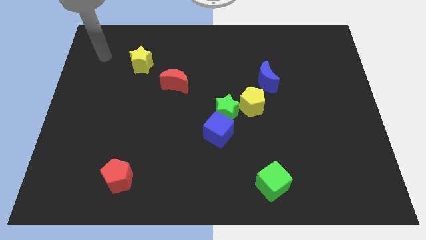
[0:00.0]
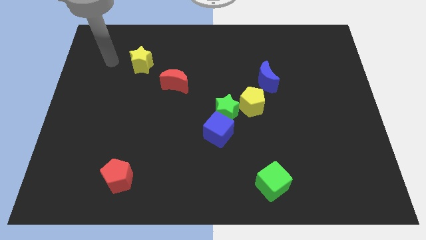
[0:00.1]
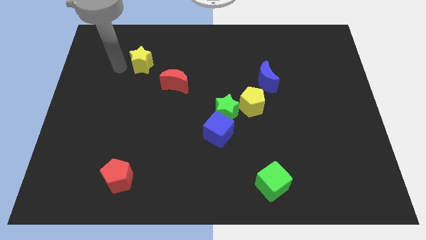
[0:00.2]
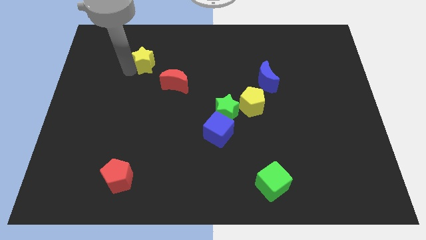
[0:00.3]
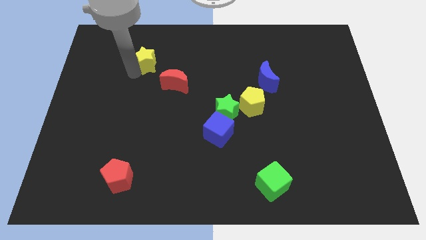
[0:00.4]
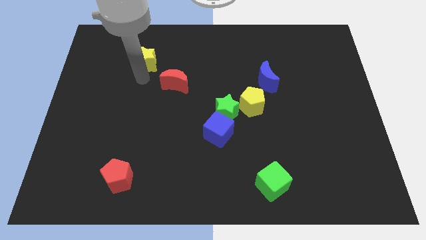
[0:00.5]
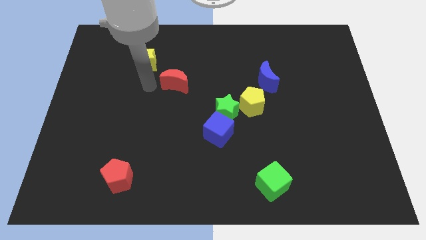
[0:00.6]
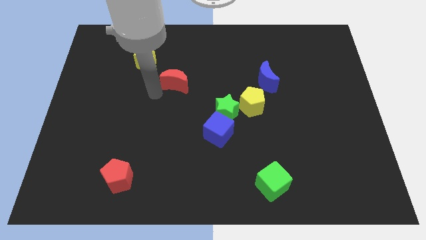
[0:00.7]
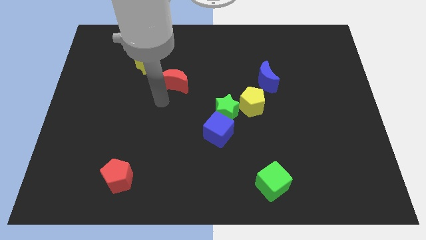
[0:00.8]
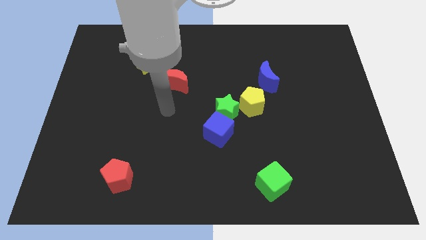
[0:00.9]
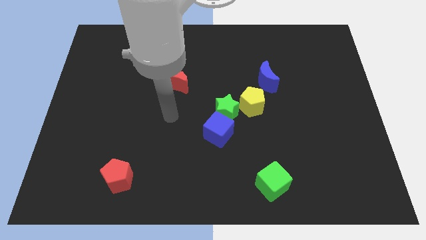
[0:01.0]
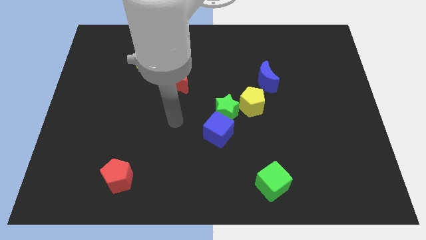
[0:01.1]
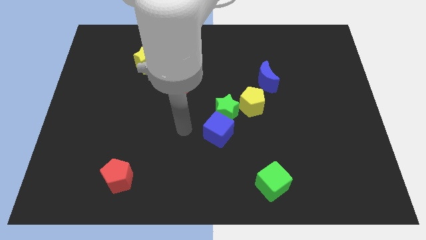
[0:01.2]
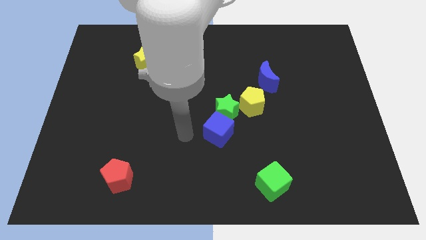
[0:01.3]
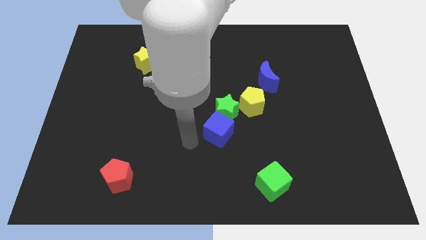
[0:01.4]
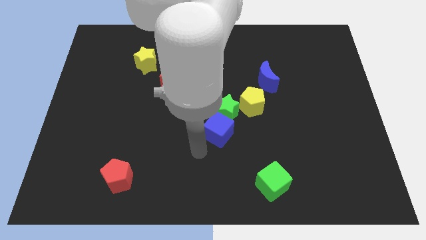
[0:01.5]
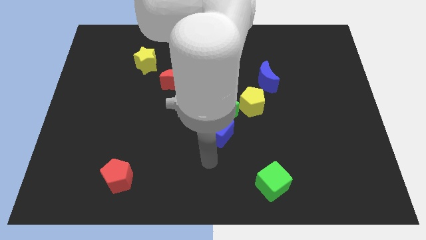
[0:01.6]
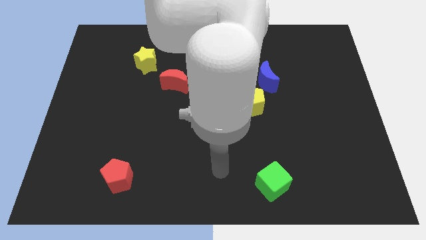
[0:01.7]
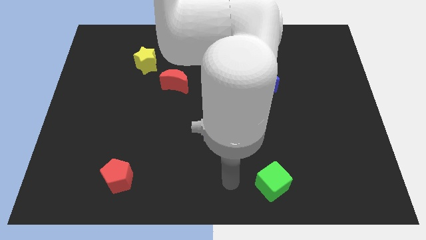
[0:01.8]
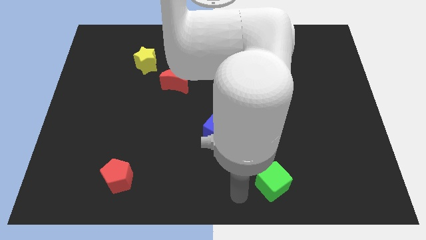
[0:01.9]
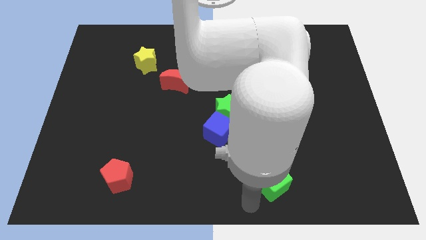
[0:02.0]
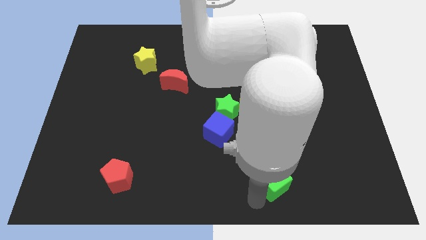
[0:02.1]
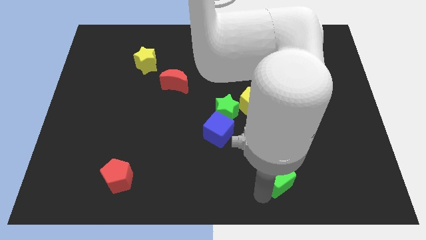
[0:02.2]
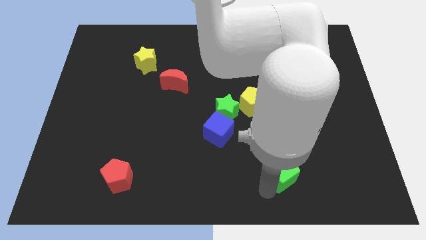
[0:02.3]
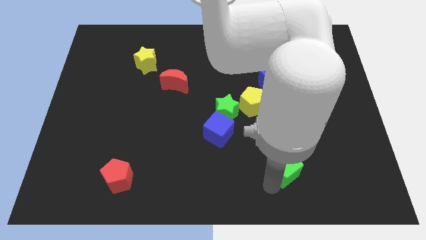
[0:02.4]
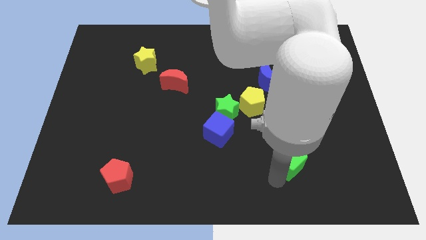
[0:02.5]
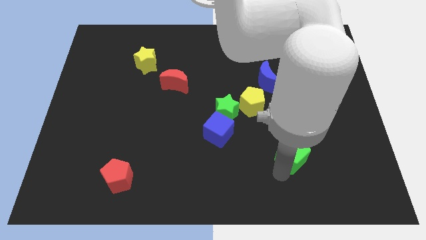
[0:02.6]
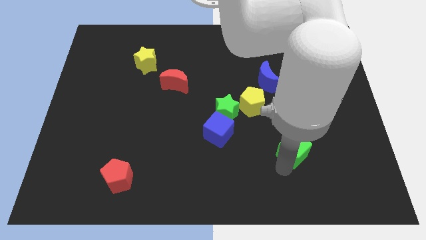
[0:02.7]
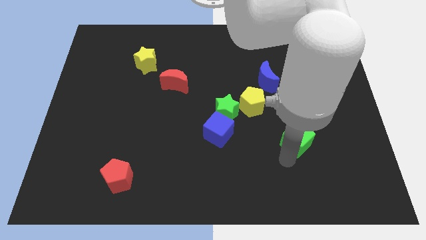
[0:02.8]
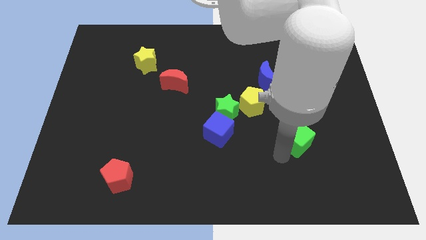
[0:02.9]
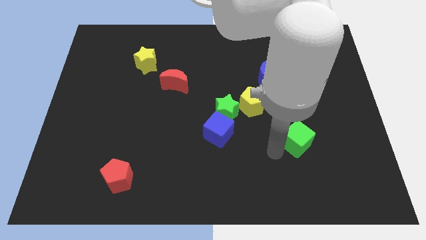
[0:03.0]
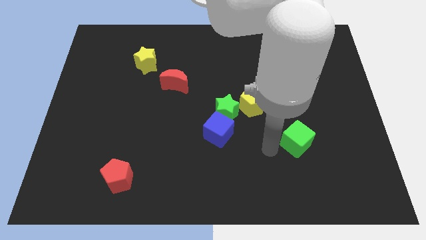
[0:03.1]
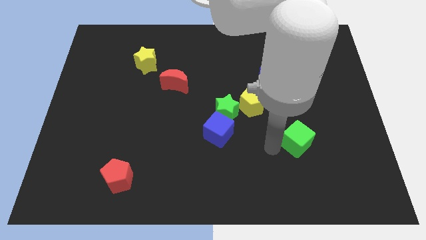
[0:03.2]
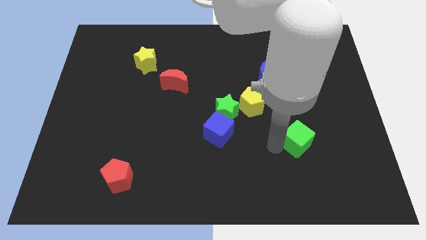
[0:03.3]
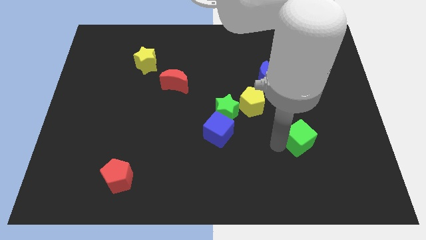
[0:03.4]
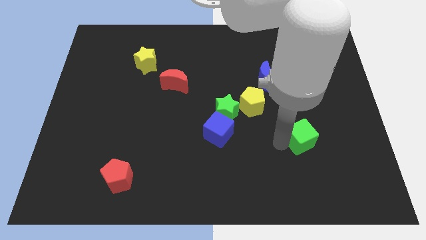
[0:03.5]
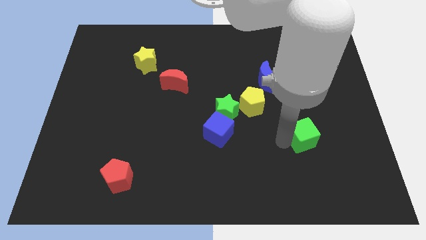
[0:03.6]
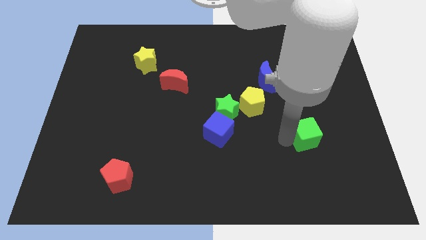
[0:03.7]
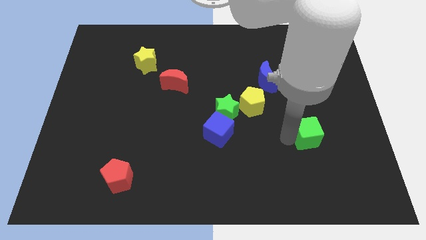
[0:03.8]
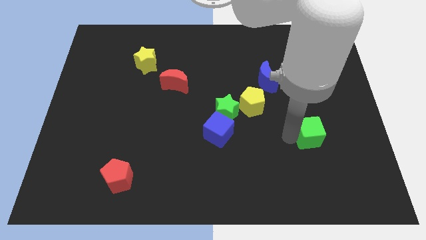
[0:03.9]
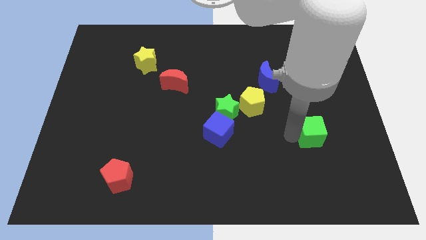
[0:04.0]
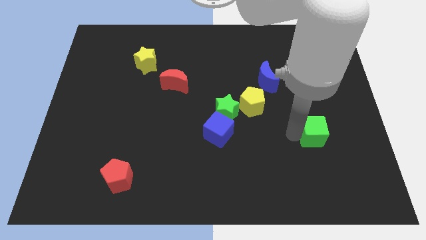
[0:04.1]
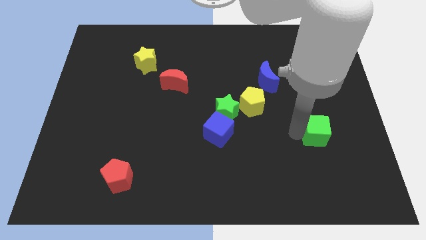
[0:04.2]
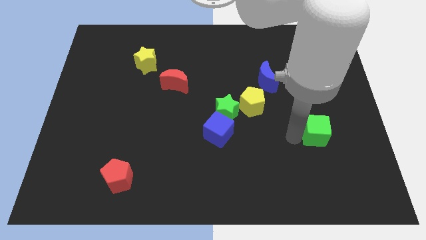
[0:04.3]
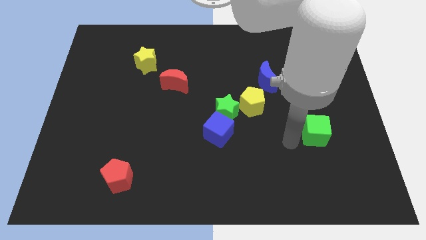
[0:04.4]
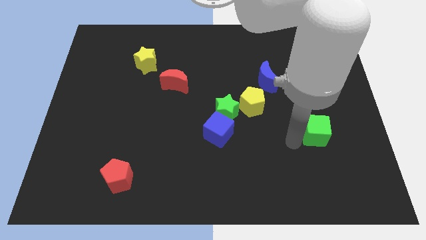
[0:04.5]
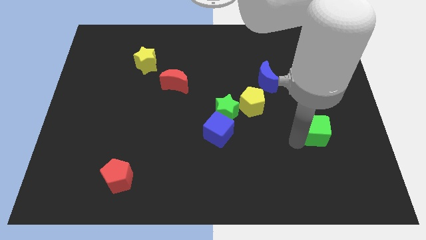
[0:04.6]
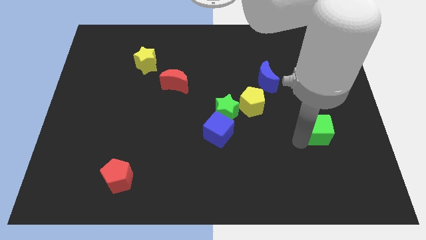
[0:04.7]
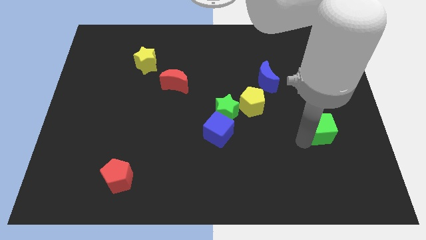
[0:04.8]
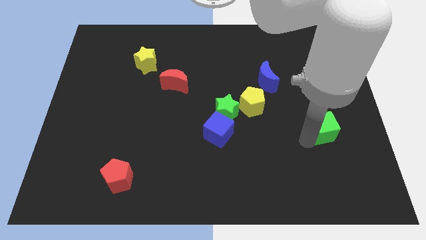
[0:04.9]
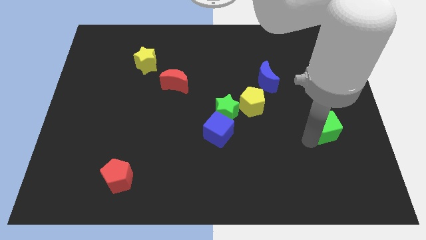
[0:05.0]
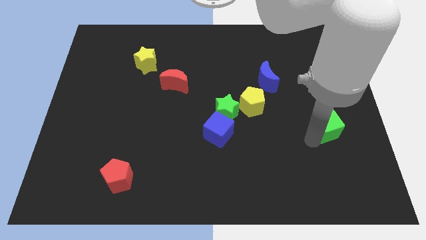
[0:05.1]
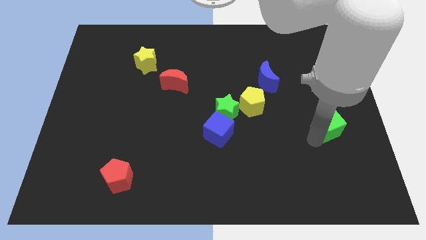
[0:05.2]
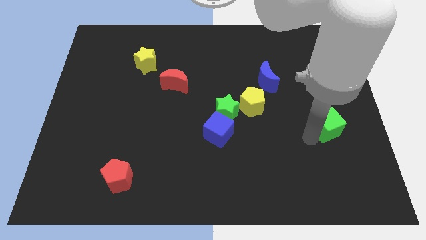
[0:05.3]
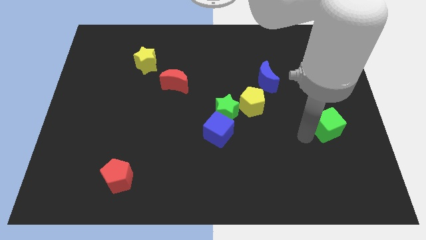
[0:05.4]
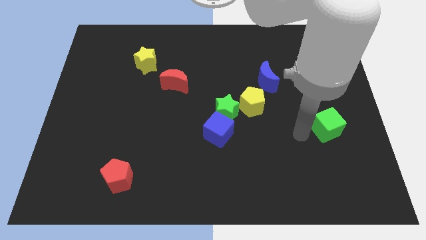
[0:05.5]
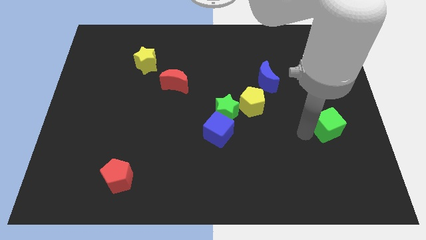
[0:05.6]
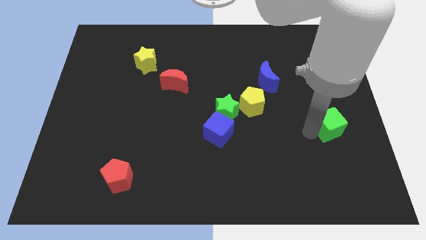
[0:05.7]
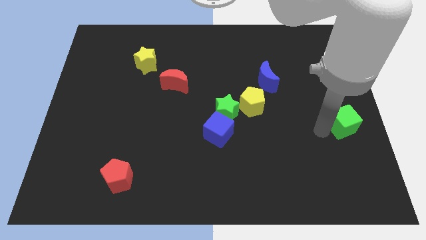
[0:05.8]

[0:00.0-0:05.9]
slide the green cube to the center right
